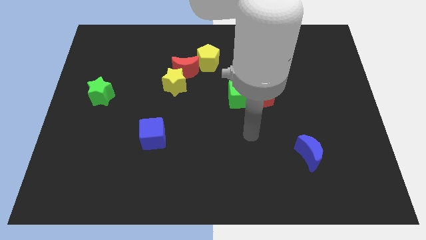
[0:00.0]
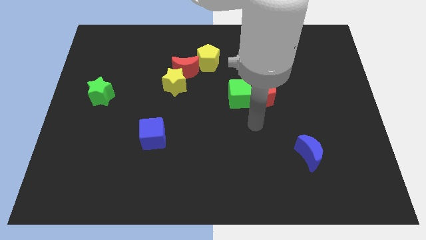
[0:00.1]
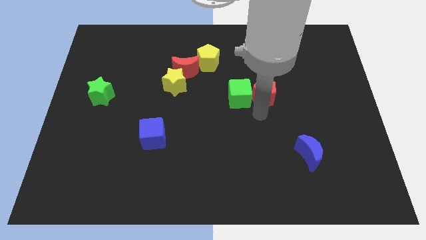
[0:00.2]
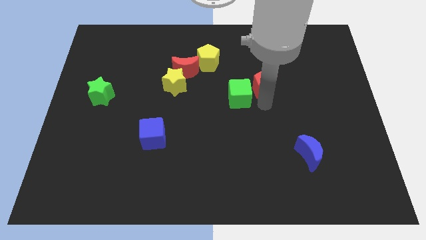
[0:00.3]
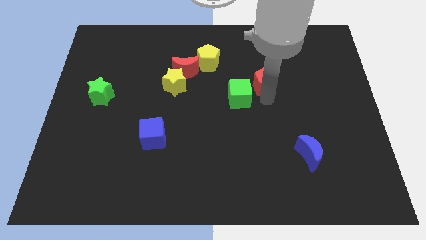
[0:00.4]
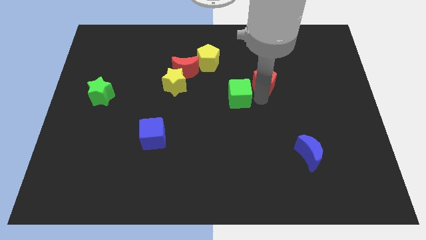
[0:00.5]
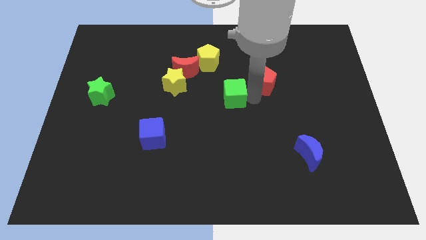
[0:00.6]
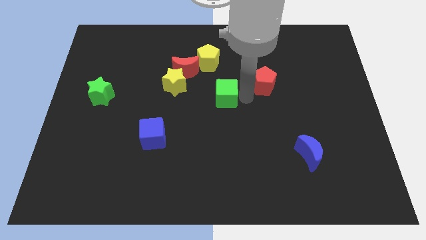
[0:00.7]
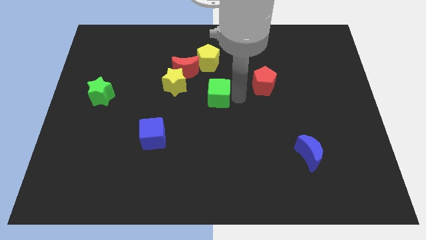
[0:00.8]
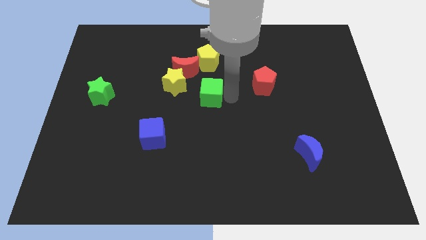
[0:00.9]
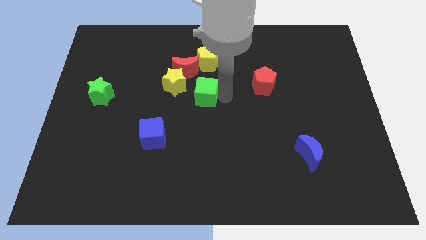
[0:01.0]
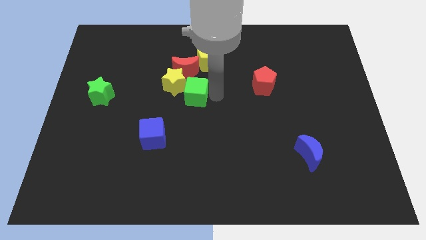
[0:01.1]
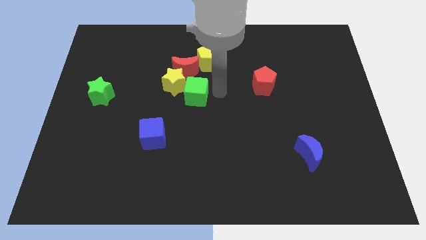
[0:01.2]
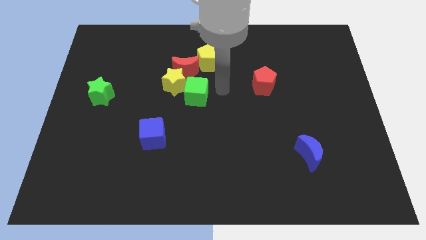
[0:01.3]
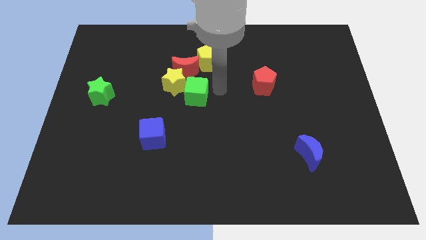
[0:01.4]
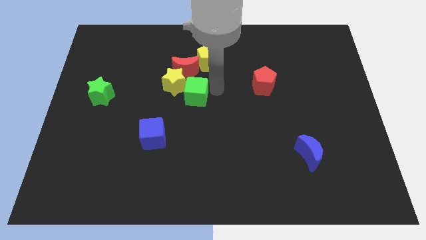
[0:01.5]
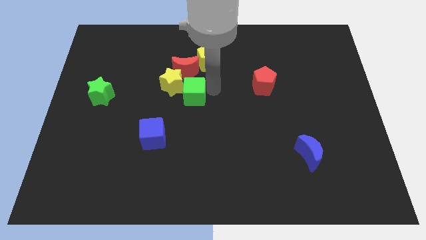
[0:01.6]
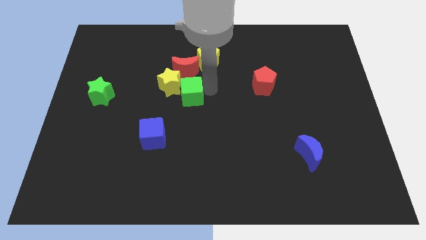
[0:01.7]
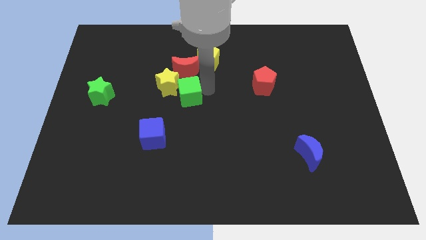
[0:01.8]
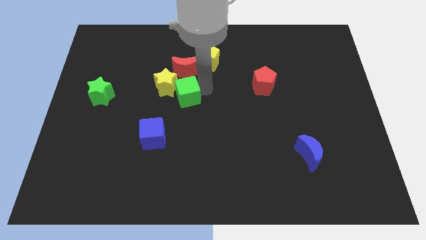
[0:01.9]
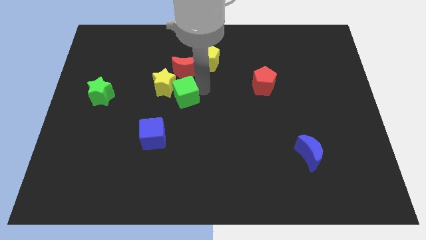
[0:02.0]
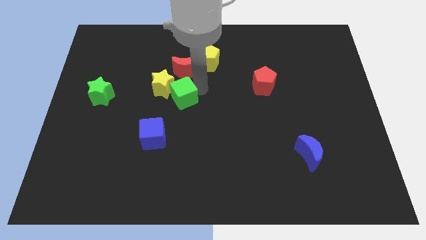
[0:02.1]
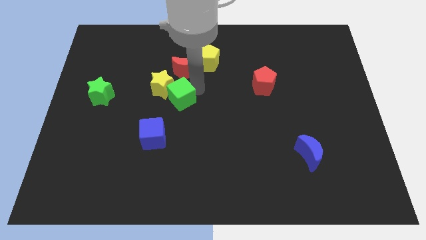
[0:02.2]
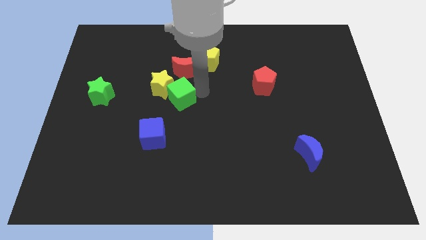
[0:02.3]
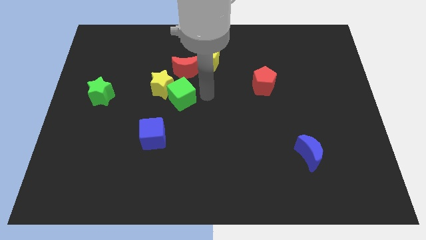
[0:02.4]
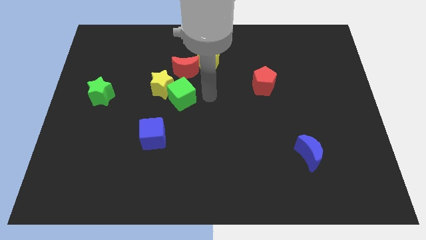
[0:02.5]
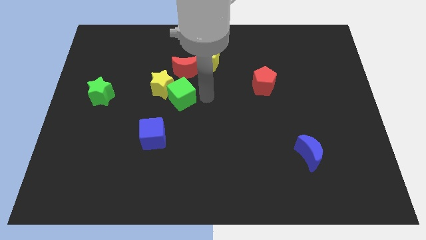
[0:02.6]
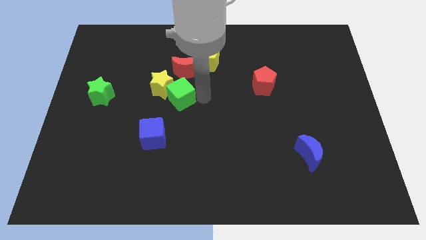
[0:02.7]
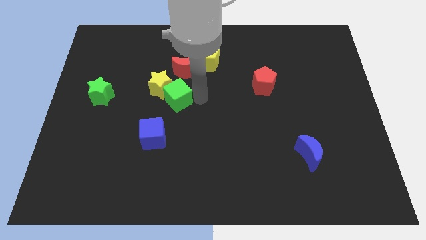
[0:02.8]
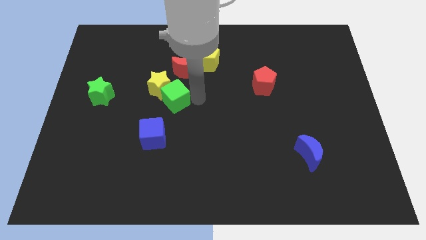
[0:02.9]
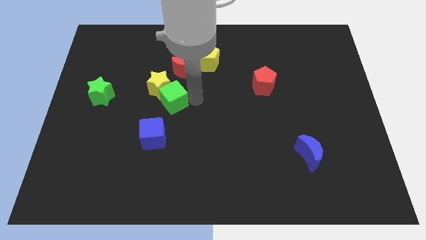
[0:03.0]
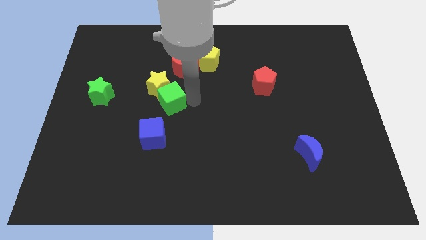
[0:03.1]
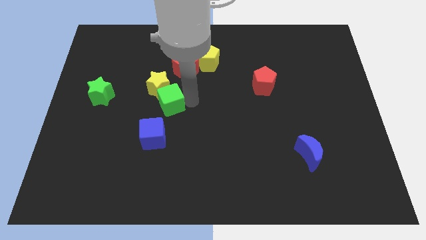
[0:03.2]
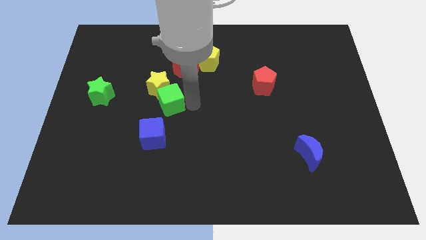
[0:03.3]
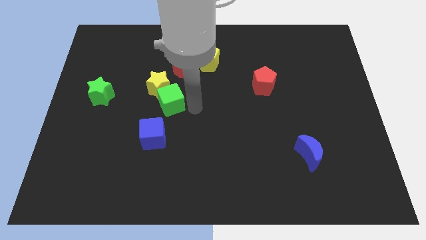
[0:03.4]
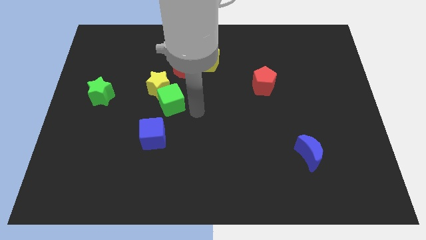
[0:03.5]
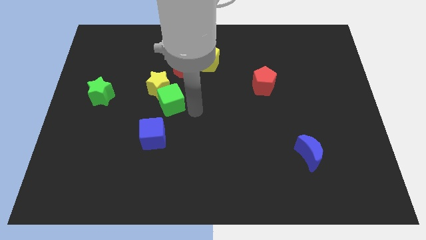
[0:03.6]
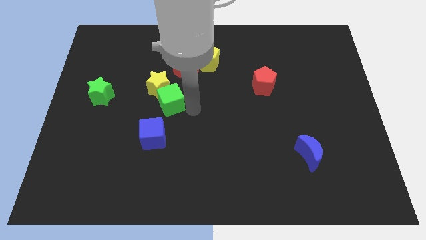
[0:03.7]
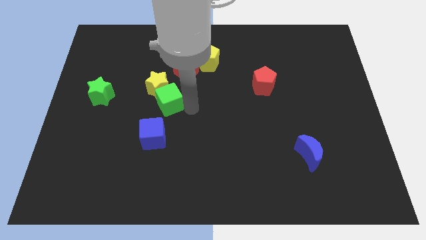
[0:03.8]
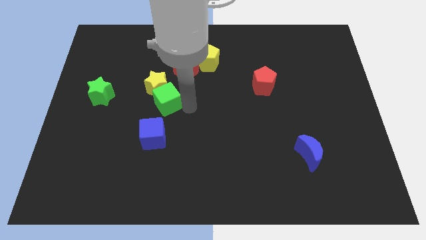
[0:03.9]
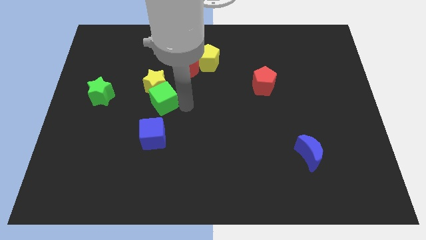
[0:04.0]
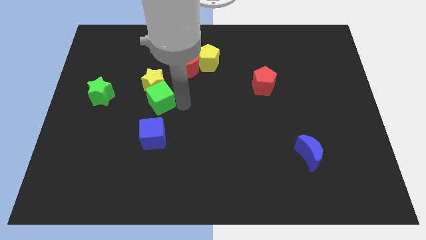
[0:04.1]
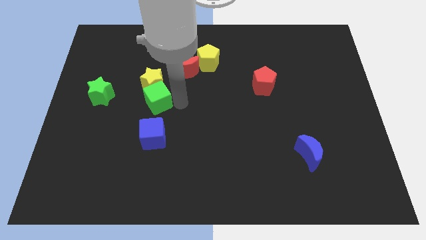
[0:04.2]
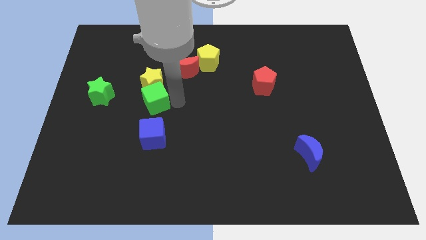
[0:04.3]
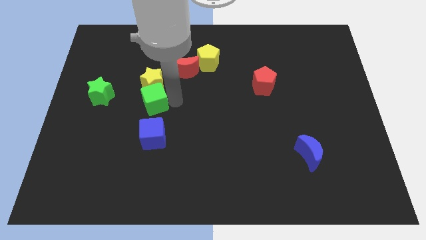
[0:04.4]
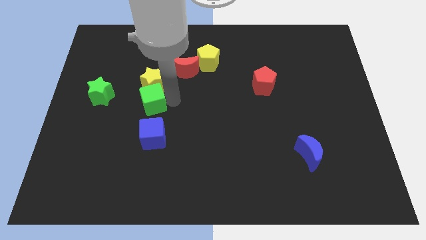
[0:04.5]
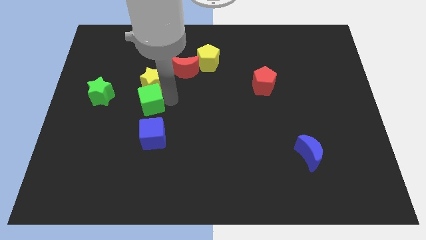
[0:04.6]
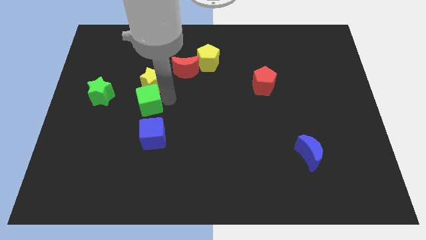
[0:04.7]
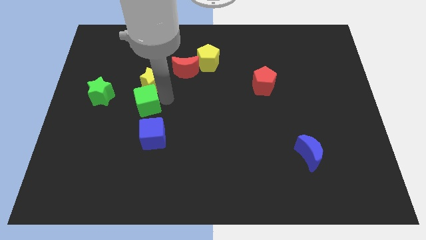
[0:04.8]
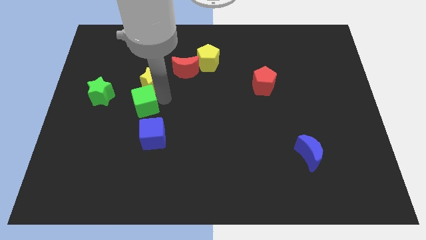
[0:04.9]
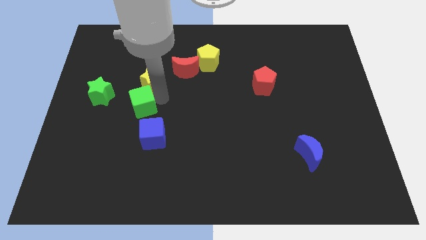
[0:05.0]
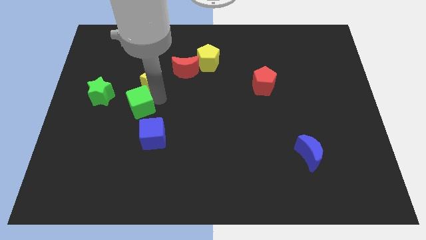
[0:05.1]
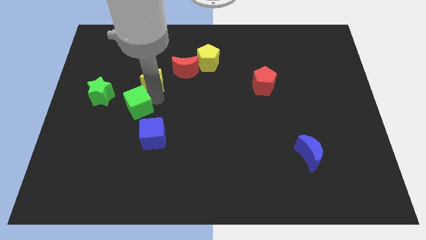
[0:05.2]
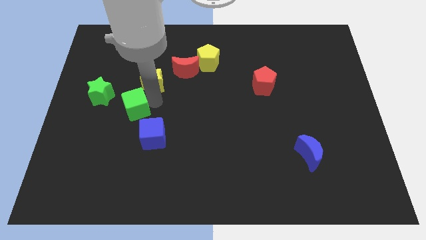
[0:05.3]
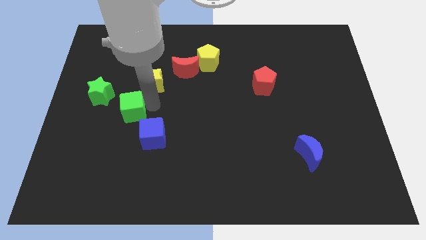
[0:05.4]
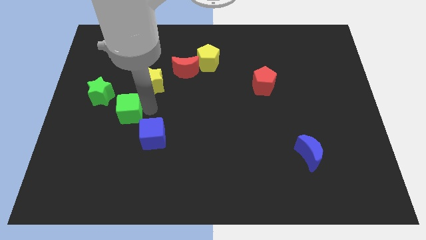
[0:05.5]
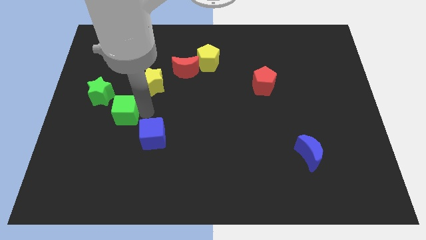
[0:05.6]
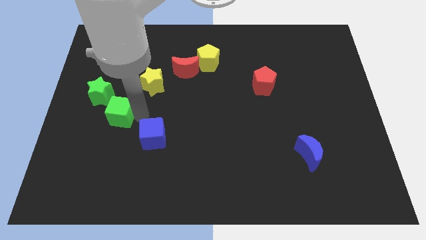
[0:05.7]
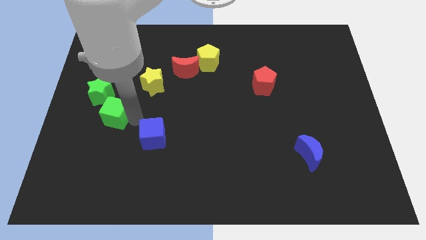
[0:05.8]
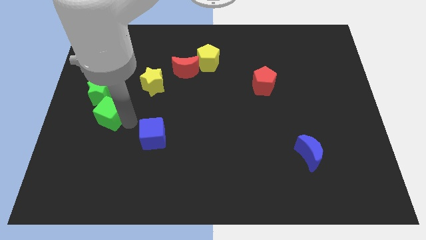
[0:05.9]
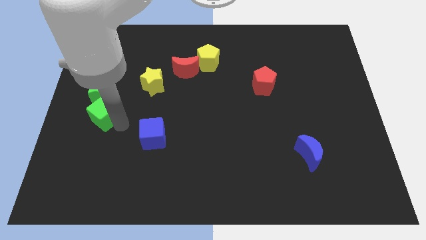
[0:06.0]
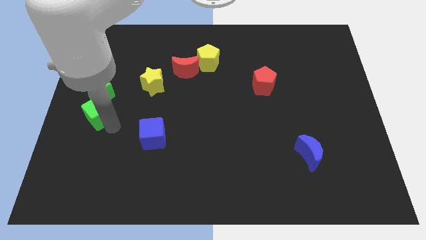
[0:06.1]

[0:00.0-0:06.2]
slide the green cube close to the green star

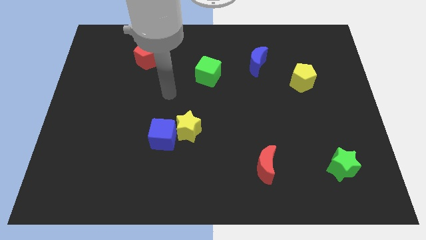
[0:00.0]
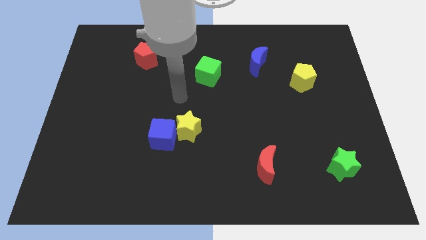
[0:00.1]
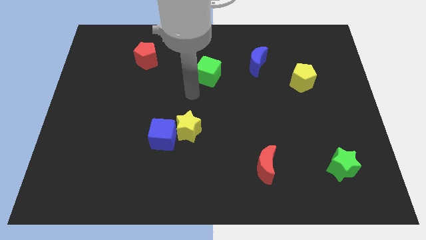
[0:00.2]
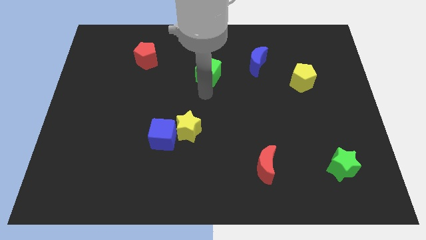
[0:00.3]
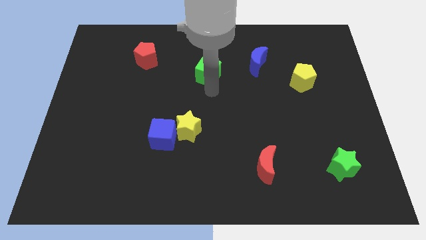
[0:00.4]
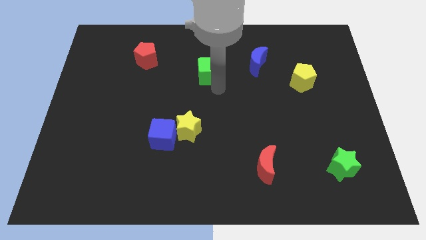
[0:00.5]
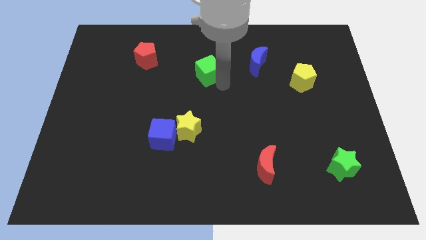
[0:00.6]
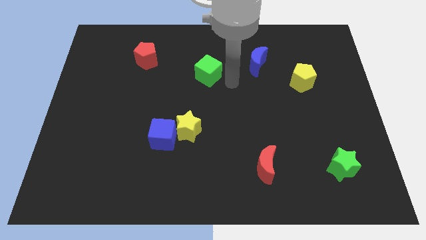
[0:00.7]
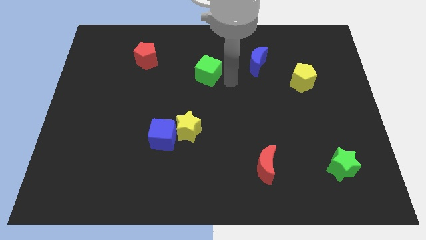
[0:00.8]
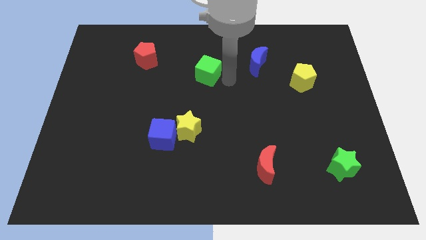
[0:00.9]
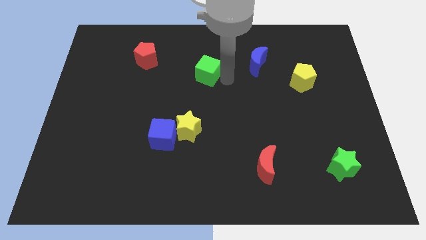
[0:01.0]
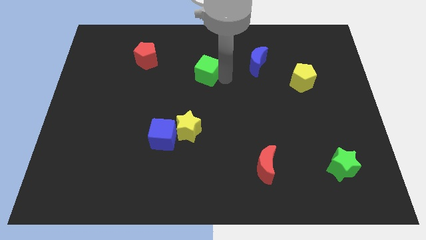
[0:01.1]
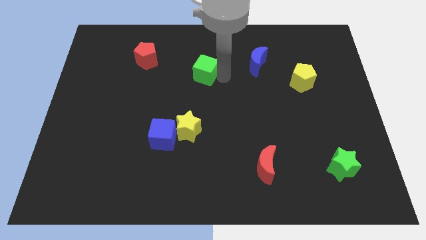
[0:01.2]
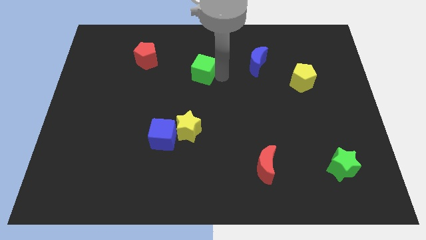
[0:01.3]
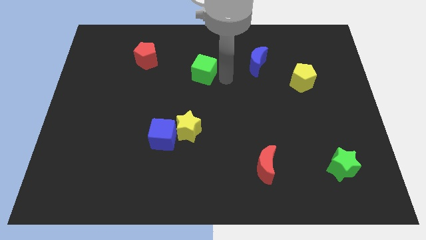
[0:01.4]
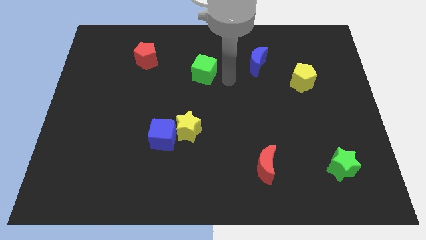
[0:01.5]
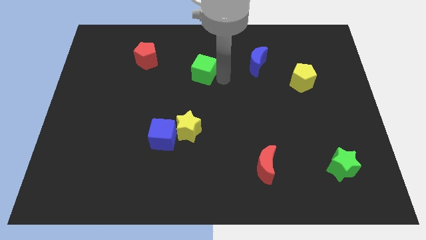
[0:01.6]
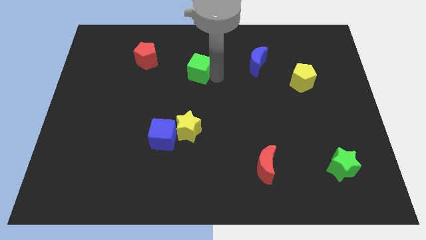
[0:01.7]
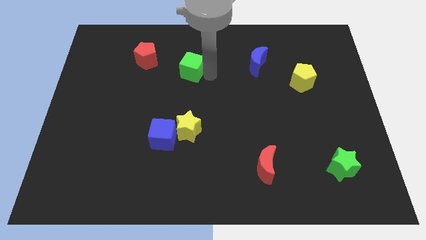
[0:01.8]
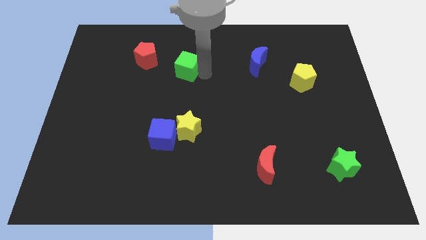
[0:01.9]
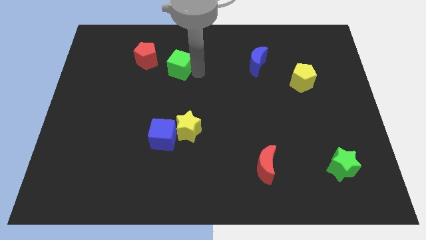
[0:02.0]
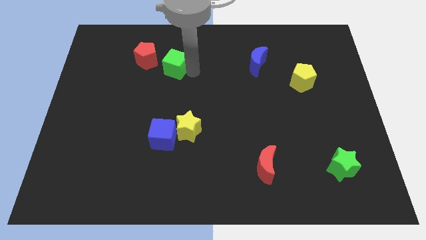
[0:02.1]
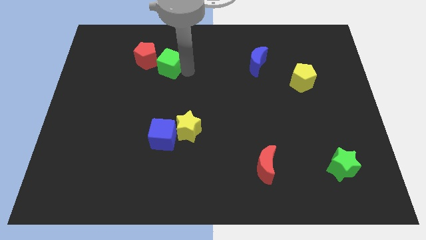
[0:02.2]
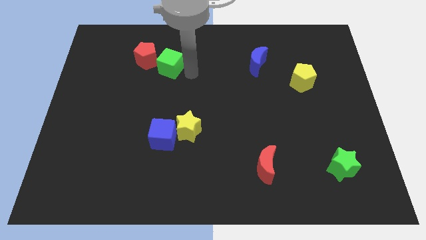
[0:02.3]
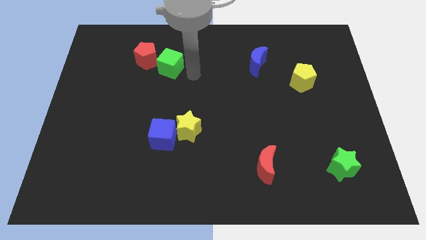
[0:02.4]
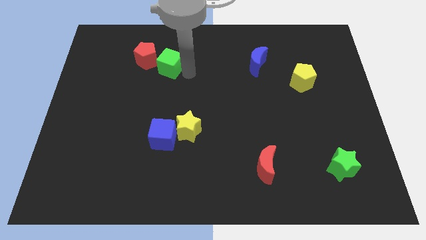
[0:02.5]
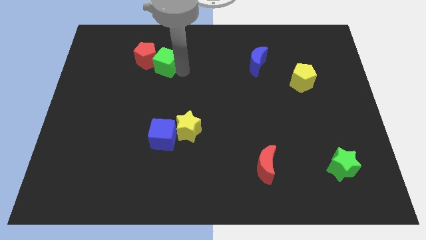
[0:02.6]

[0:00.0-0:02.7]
slide the green cube close to the red pentagon
